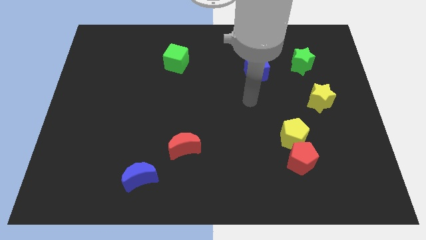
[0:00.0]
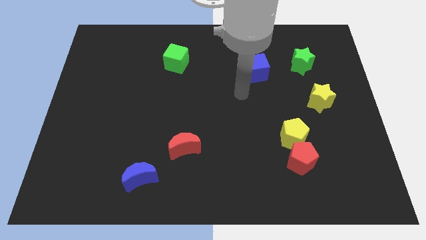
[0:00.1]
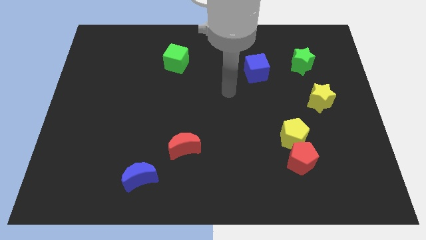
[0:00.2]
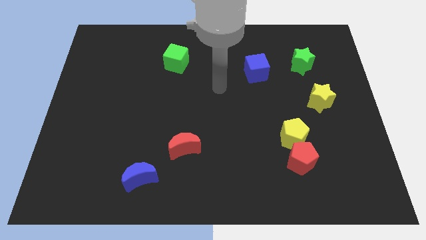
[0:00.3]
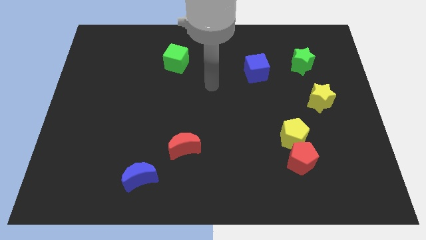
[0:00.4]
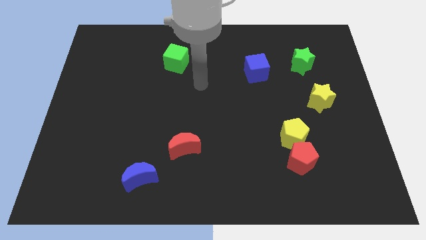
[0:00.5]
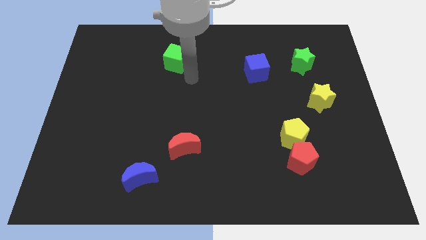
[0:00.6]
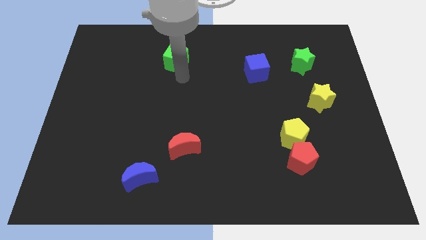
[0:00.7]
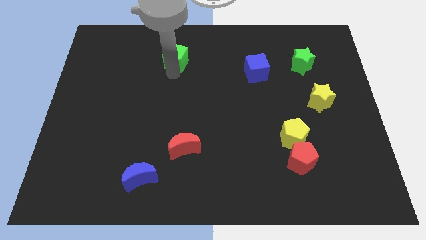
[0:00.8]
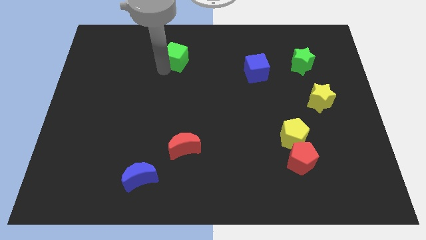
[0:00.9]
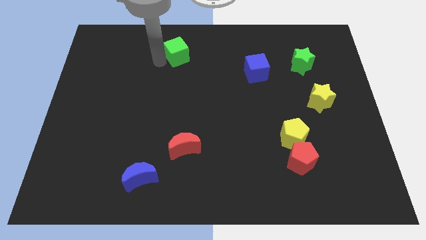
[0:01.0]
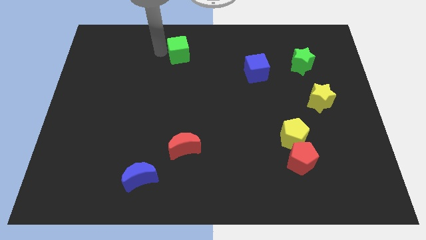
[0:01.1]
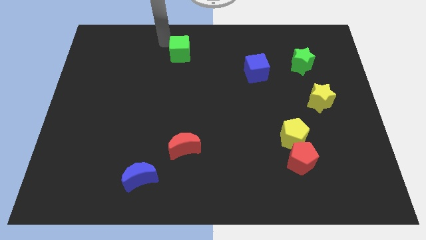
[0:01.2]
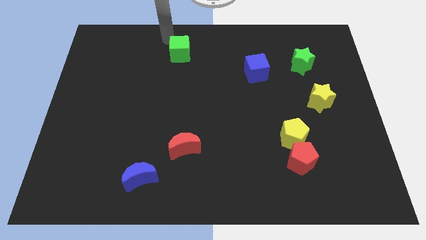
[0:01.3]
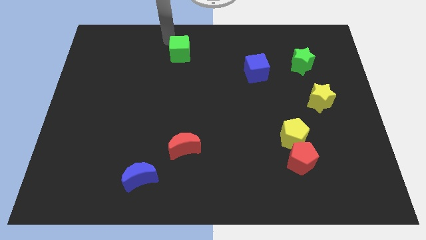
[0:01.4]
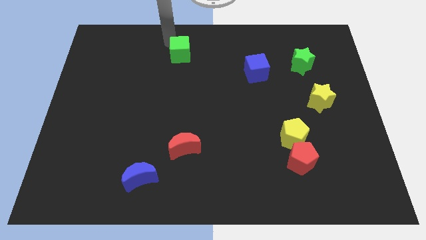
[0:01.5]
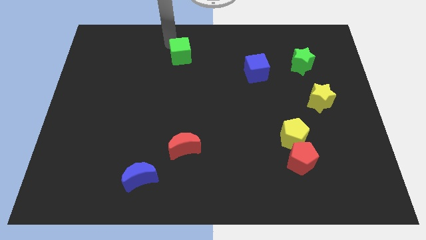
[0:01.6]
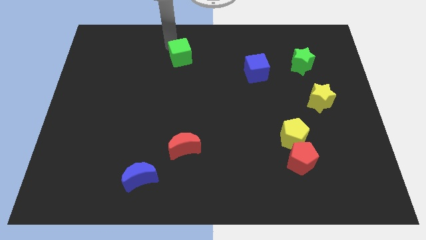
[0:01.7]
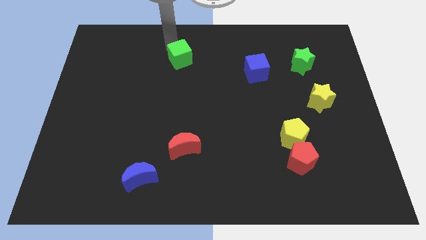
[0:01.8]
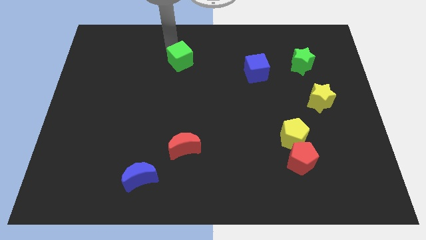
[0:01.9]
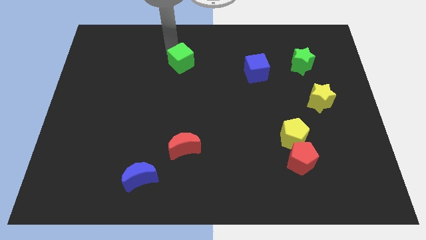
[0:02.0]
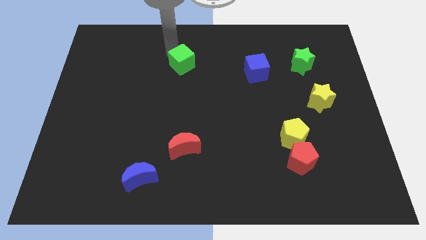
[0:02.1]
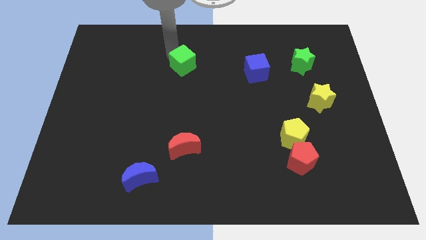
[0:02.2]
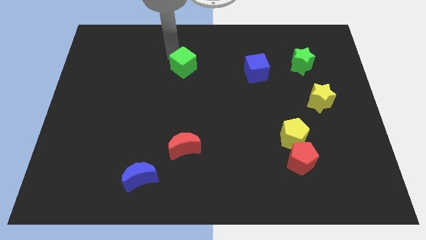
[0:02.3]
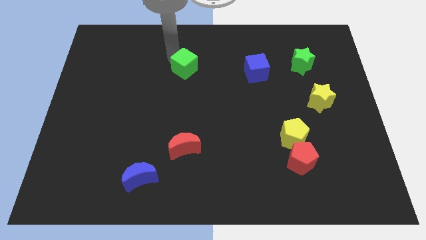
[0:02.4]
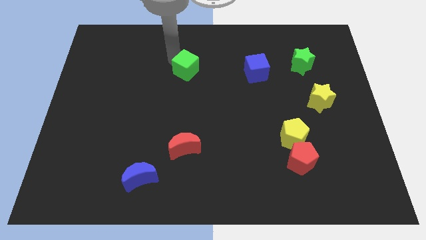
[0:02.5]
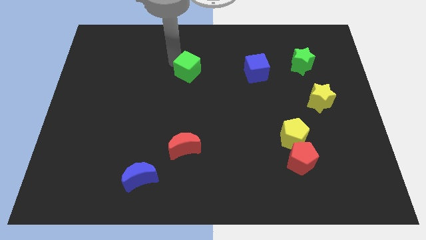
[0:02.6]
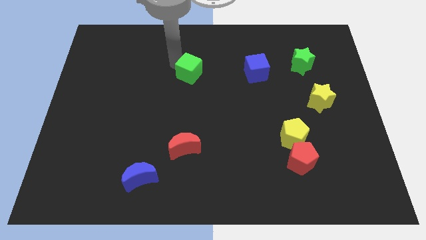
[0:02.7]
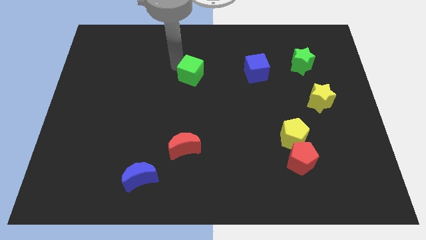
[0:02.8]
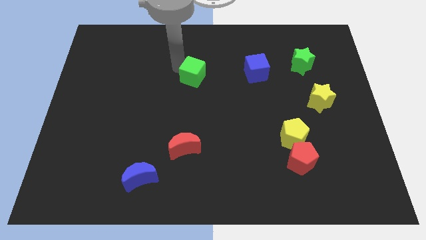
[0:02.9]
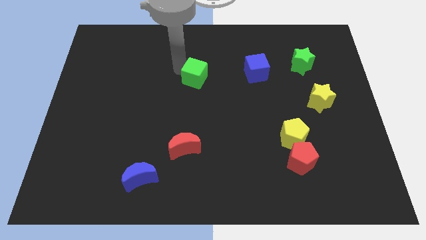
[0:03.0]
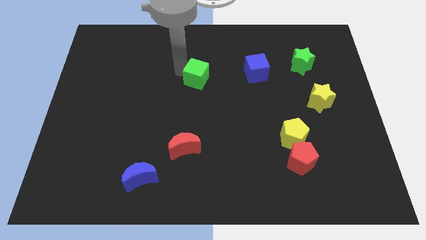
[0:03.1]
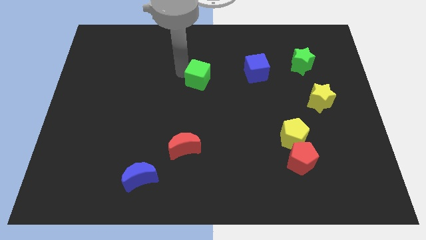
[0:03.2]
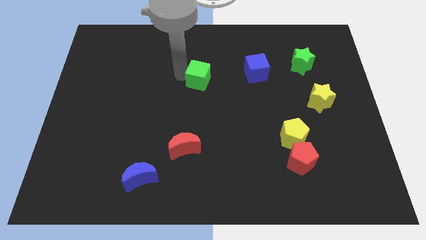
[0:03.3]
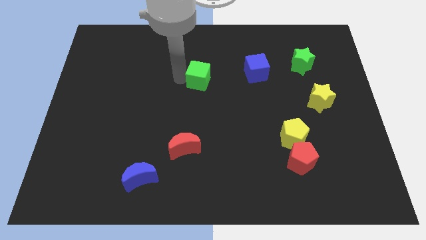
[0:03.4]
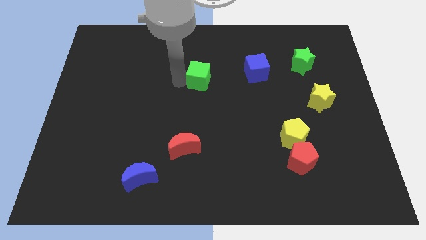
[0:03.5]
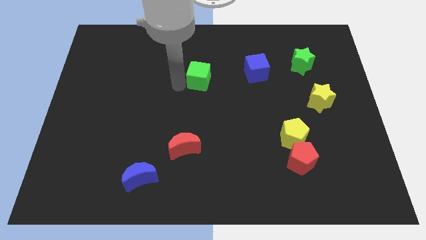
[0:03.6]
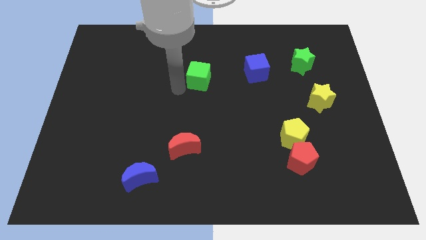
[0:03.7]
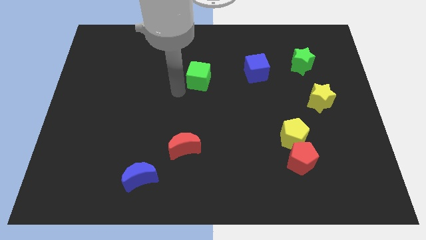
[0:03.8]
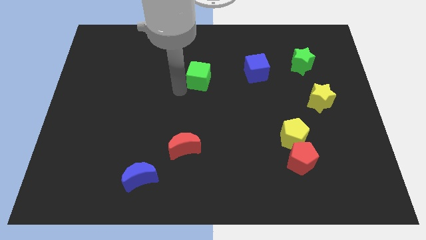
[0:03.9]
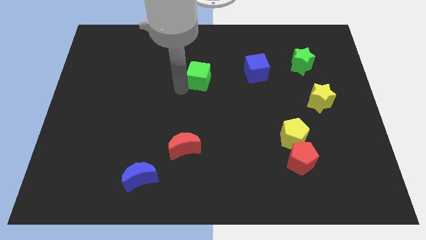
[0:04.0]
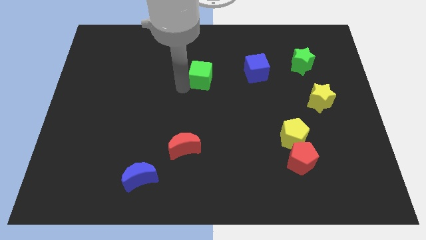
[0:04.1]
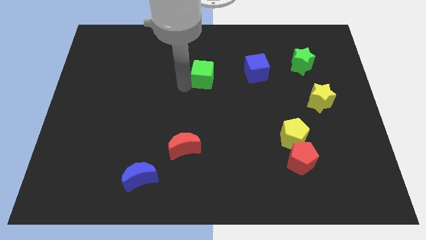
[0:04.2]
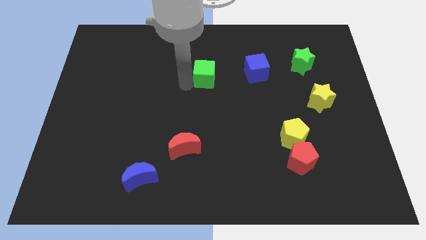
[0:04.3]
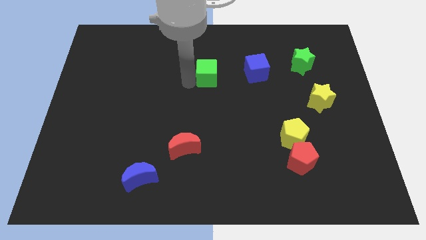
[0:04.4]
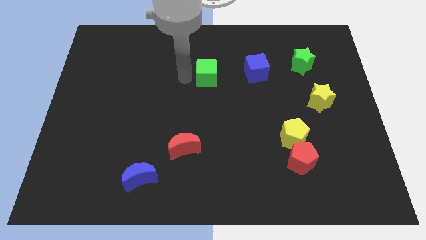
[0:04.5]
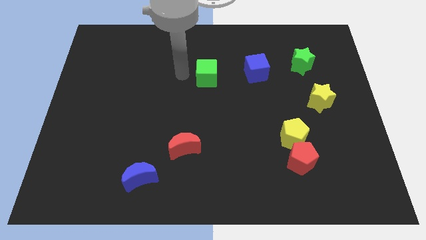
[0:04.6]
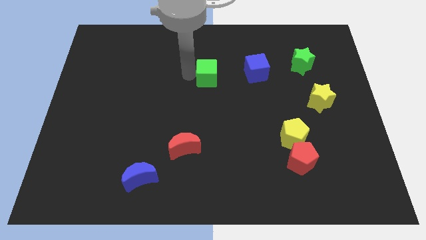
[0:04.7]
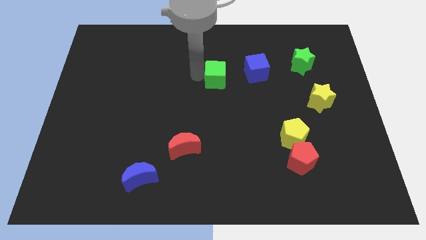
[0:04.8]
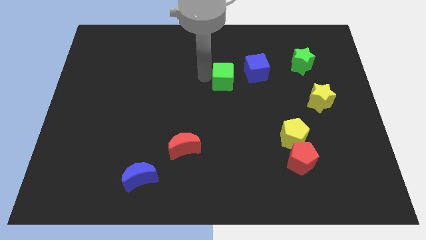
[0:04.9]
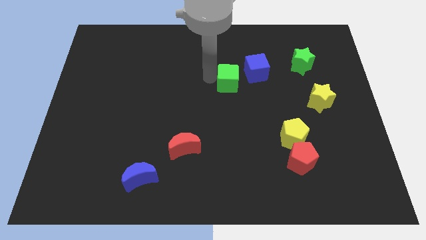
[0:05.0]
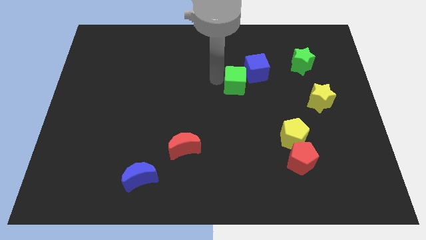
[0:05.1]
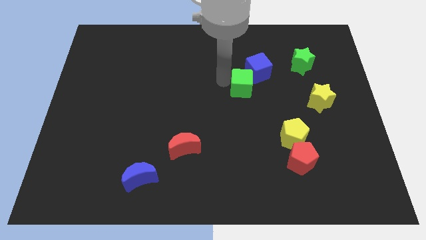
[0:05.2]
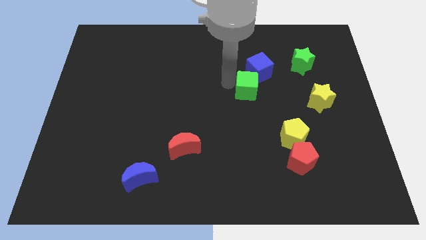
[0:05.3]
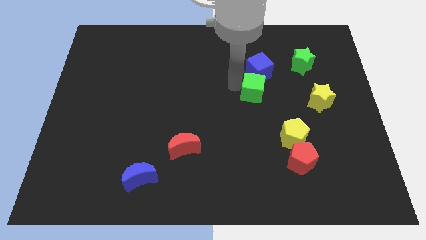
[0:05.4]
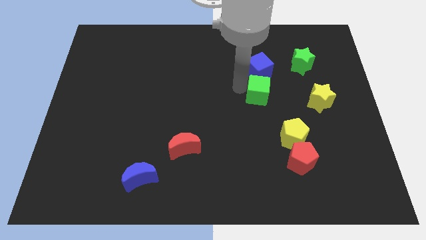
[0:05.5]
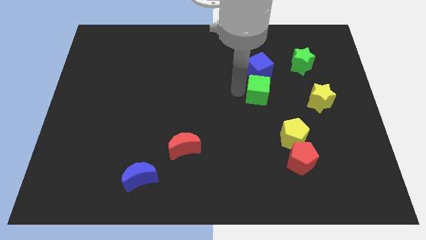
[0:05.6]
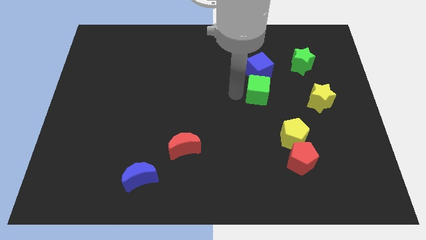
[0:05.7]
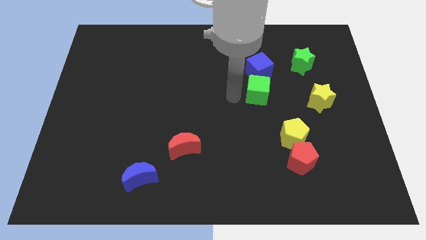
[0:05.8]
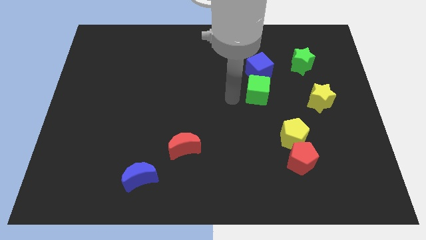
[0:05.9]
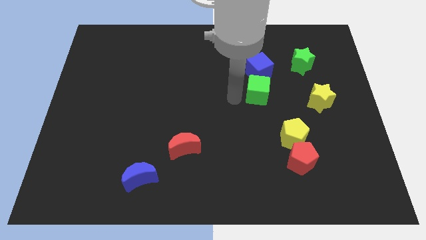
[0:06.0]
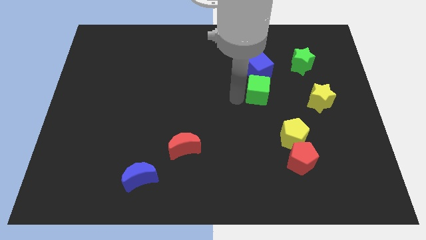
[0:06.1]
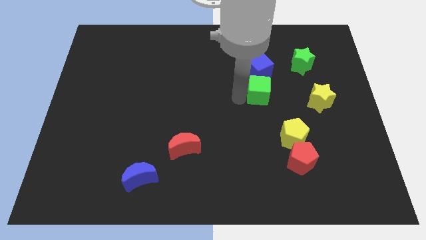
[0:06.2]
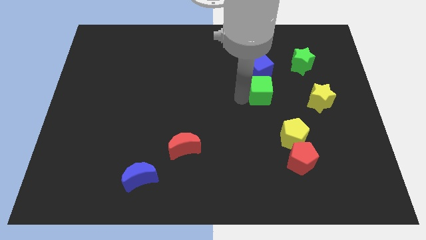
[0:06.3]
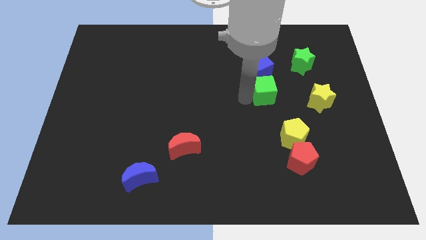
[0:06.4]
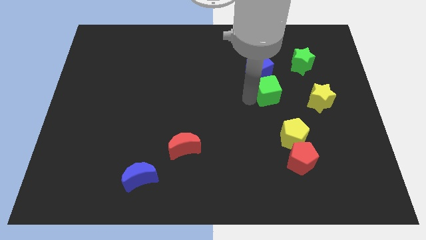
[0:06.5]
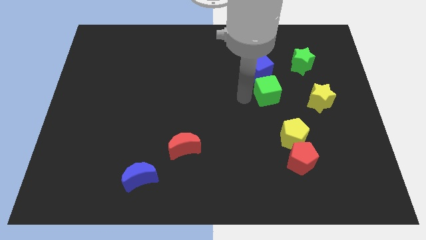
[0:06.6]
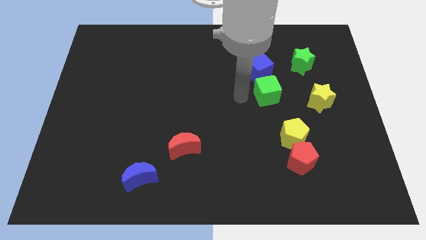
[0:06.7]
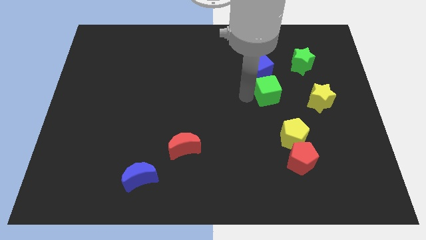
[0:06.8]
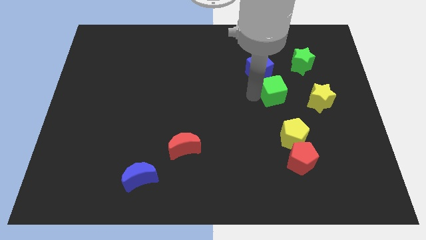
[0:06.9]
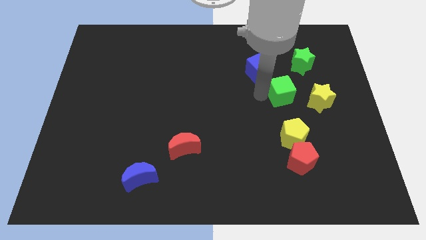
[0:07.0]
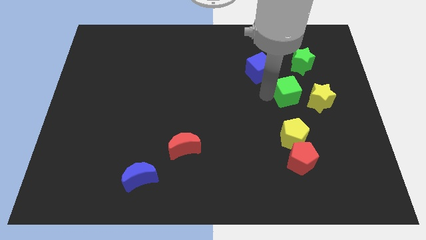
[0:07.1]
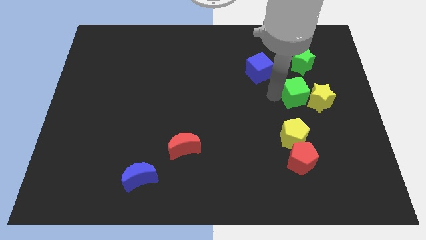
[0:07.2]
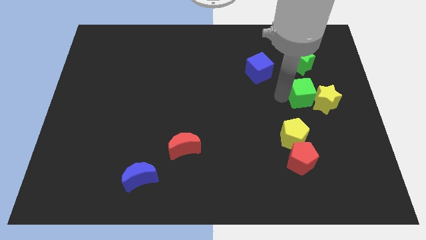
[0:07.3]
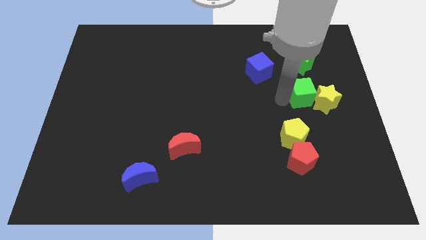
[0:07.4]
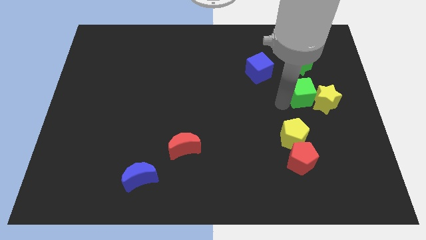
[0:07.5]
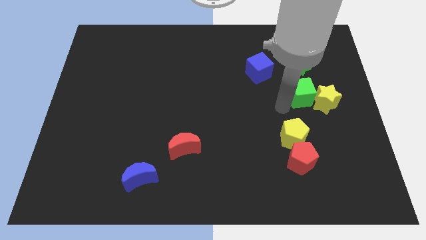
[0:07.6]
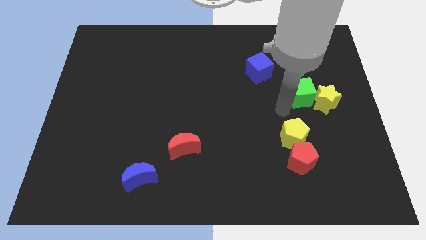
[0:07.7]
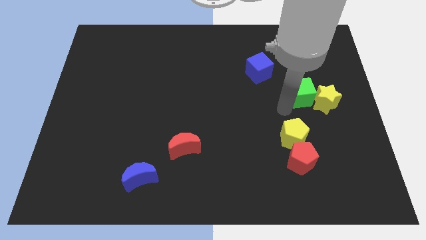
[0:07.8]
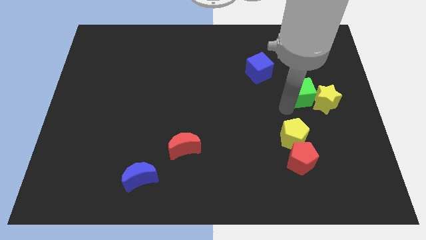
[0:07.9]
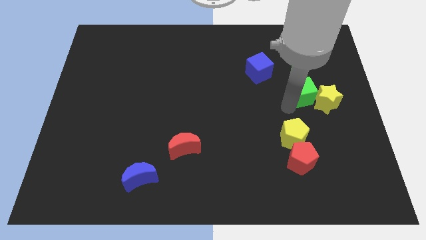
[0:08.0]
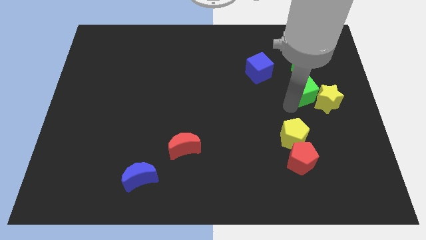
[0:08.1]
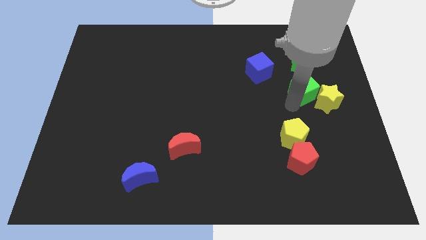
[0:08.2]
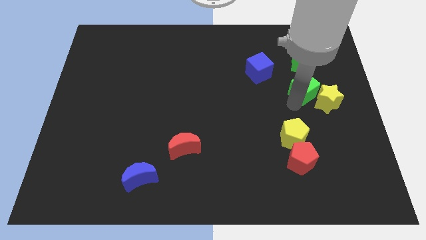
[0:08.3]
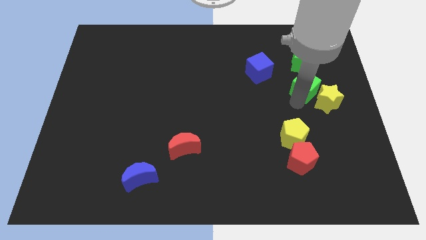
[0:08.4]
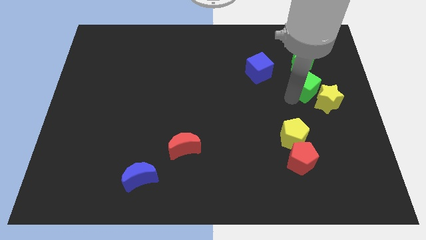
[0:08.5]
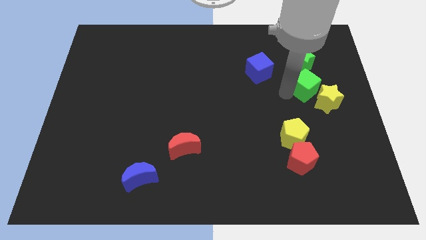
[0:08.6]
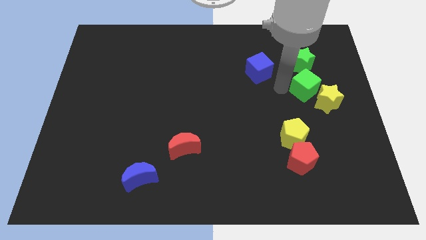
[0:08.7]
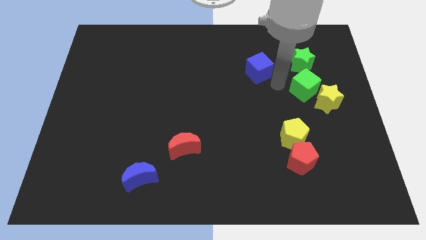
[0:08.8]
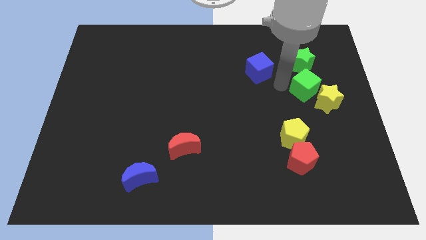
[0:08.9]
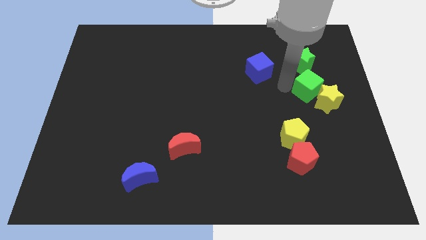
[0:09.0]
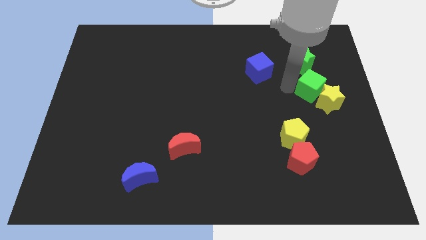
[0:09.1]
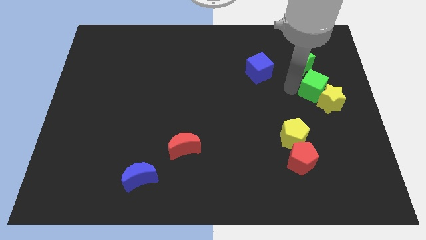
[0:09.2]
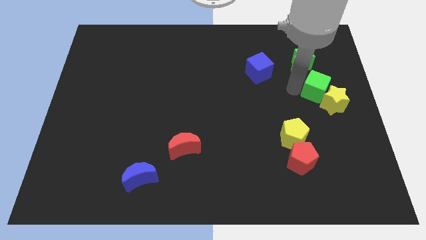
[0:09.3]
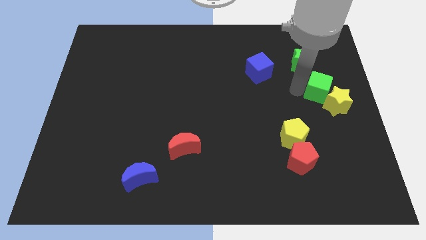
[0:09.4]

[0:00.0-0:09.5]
push the green cube to the right side
